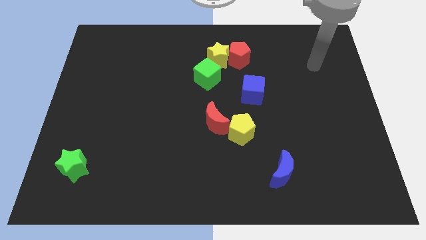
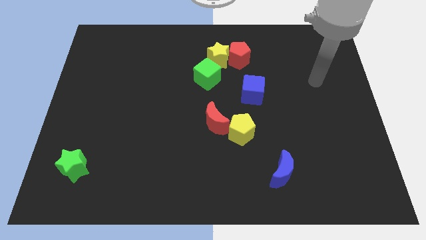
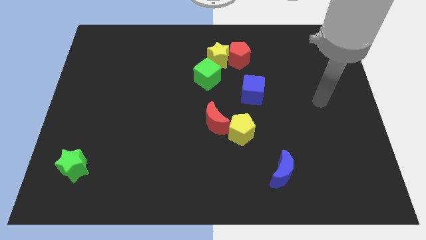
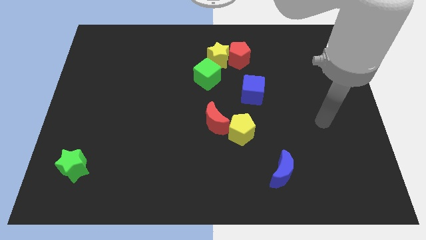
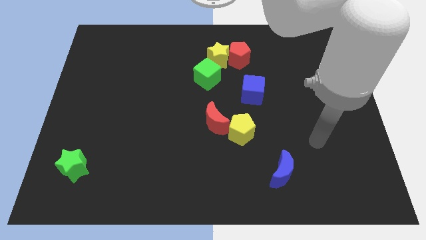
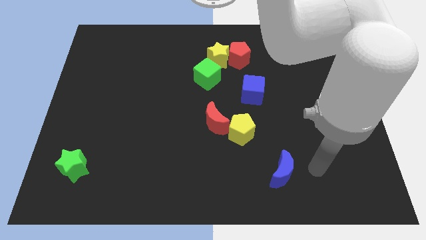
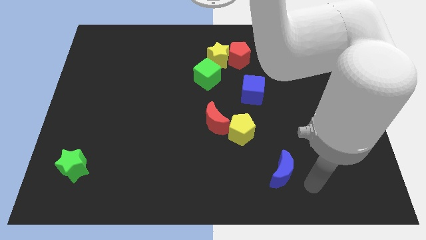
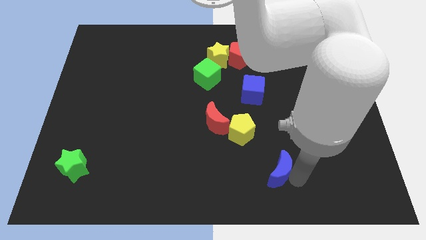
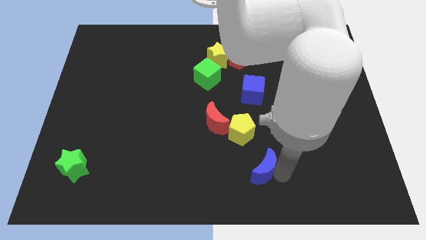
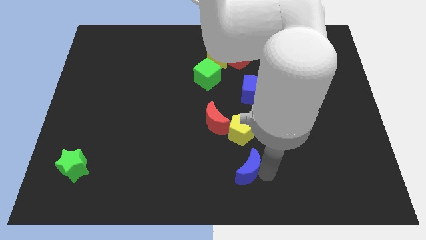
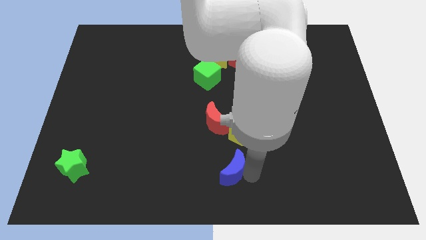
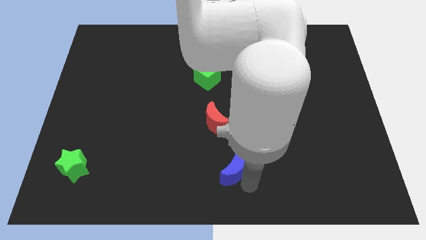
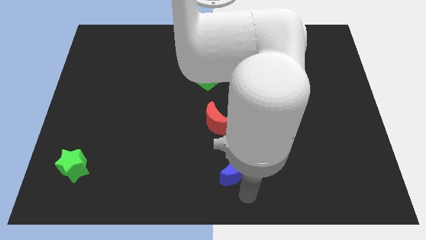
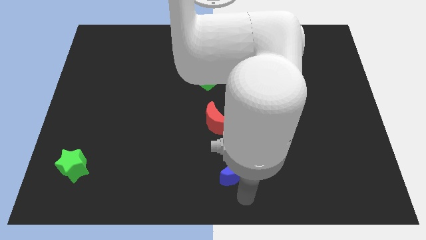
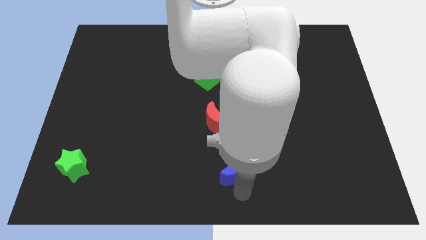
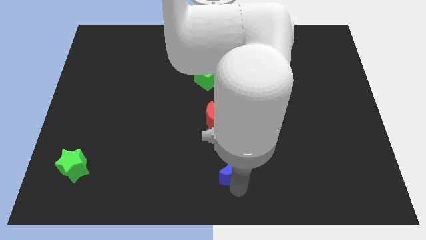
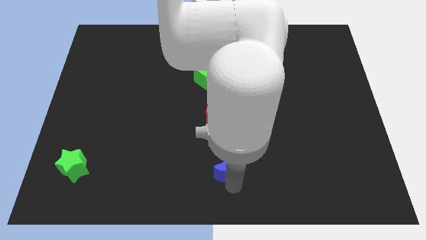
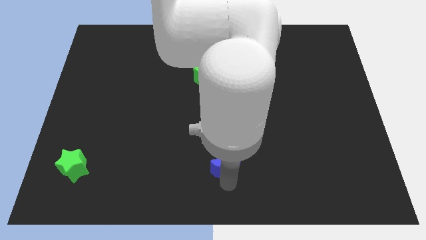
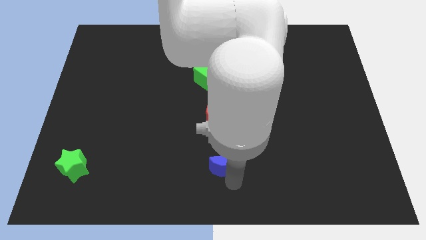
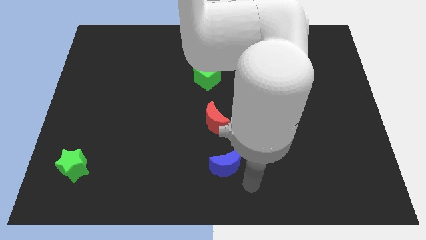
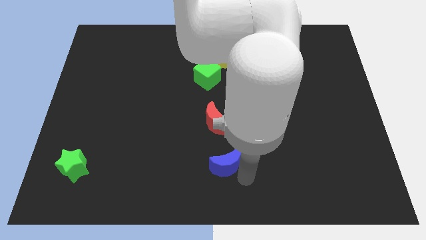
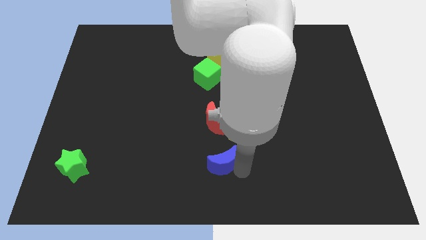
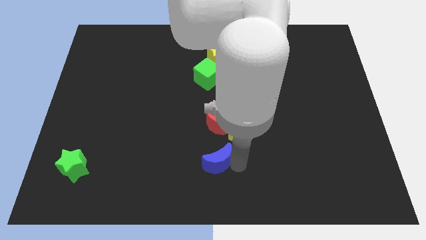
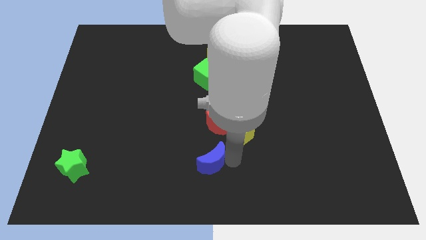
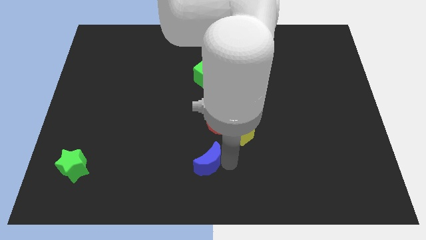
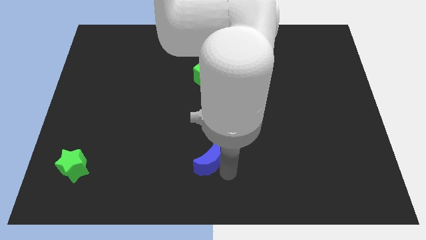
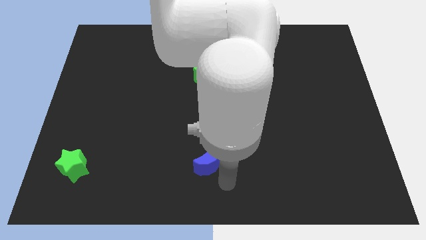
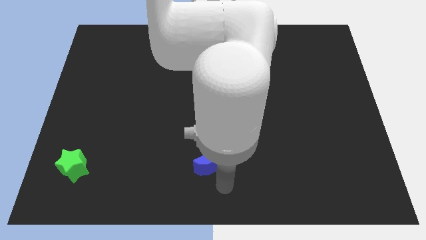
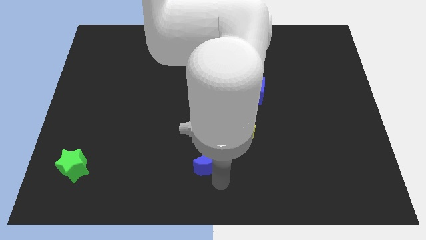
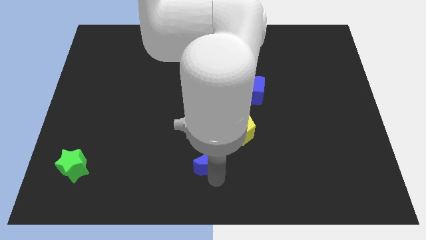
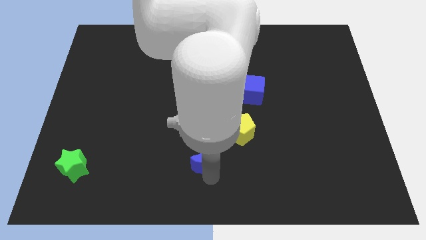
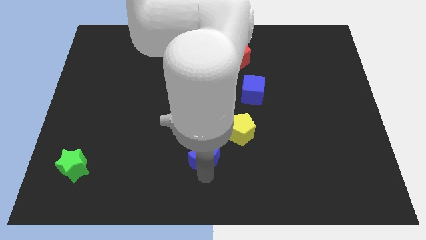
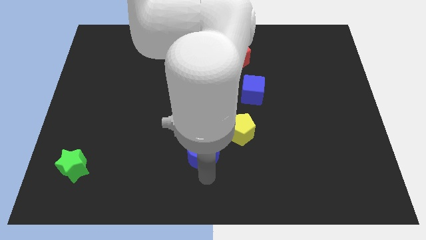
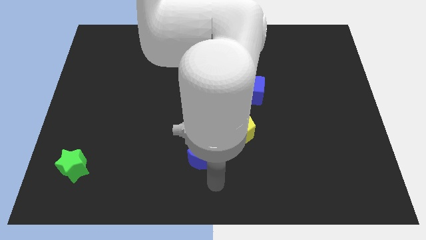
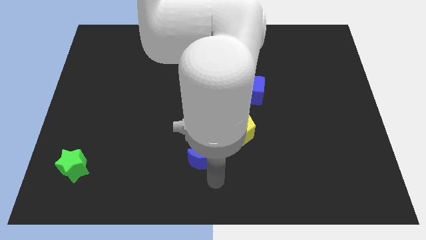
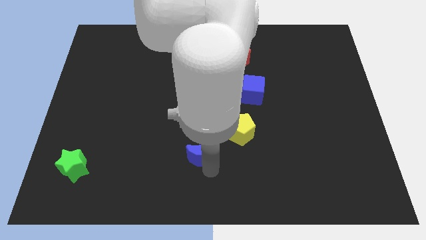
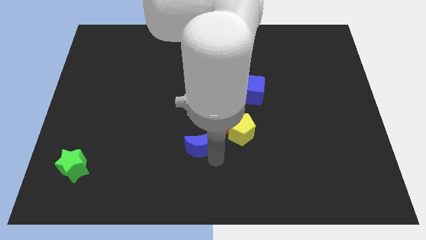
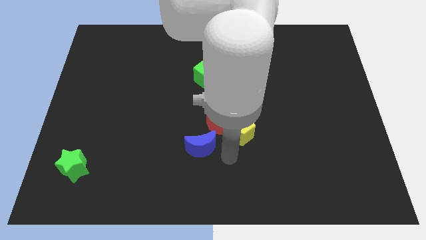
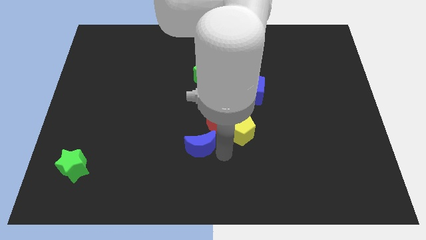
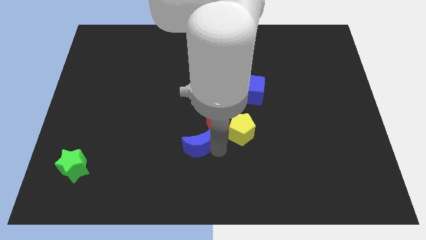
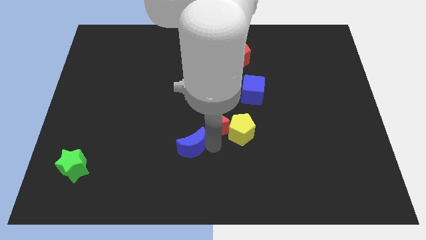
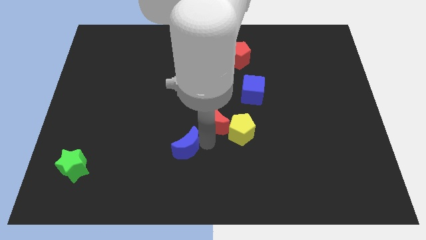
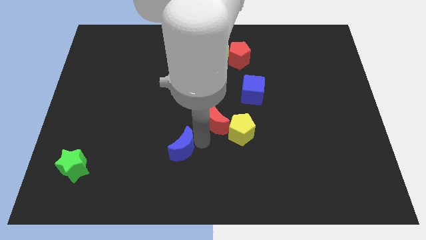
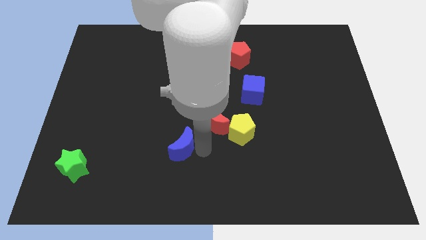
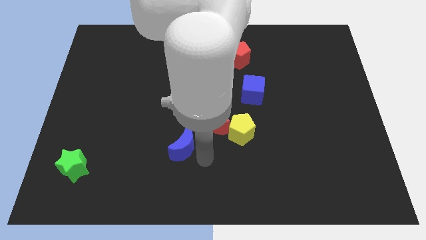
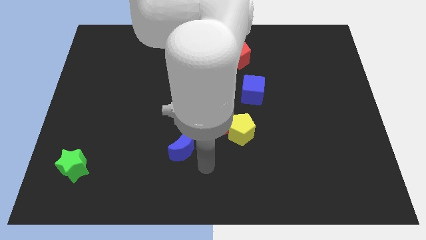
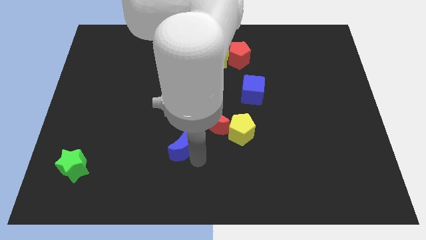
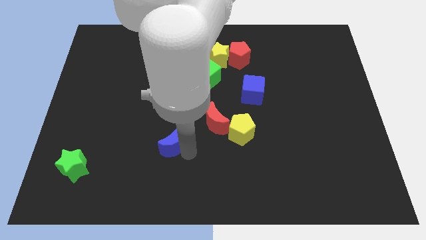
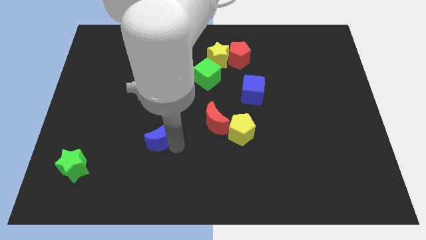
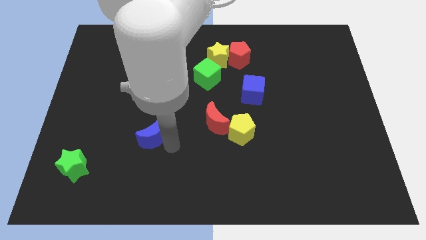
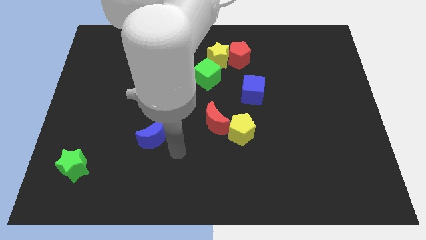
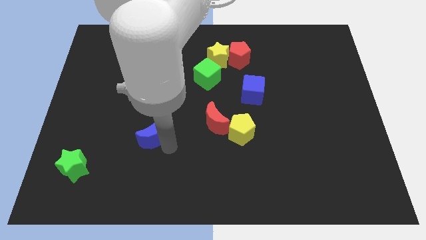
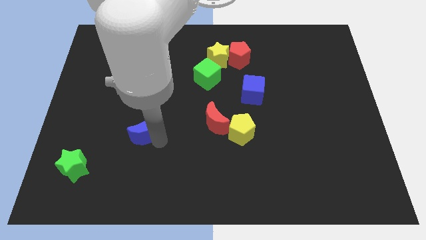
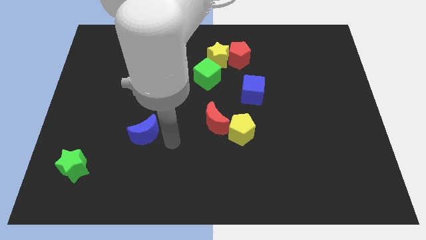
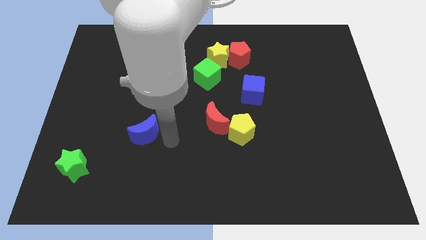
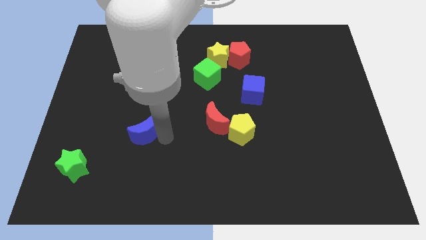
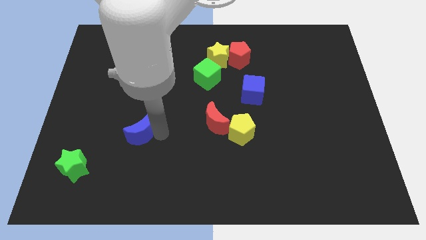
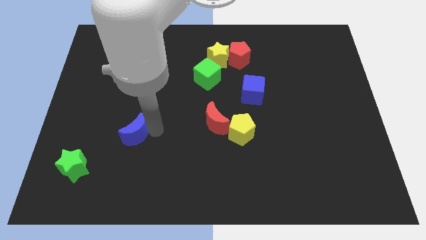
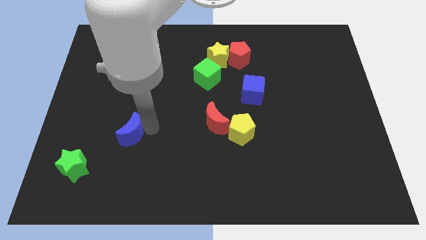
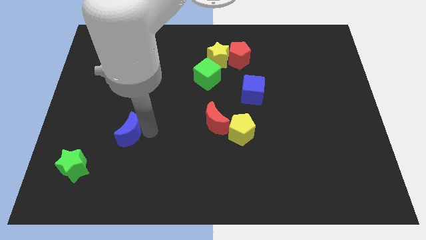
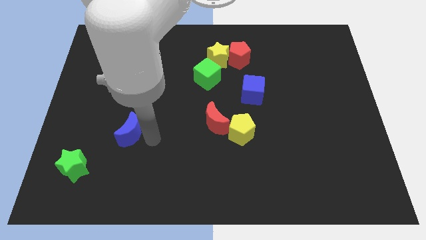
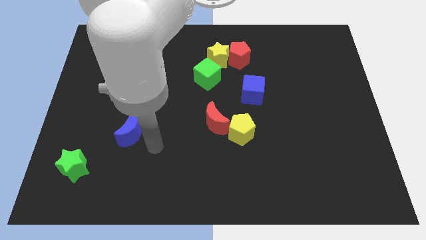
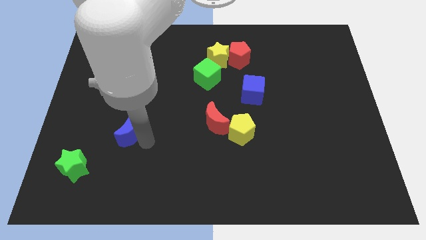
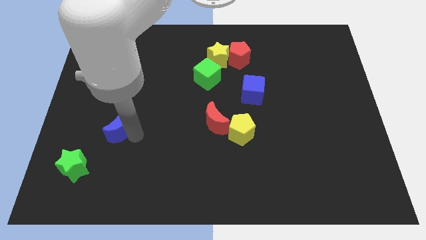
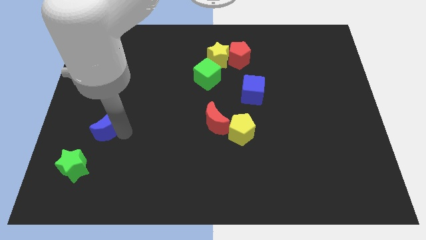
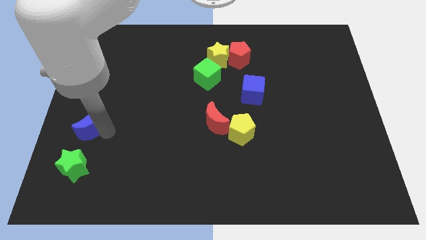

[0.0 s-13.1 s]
move the blue moon to the center left

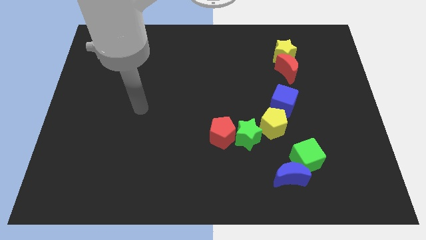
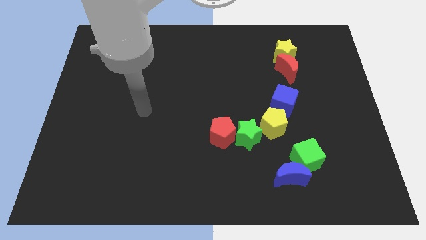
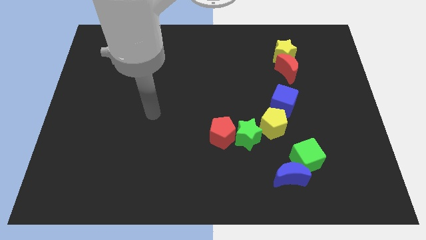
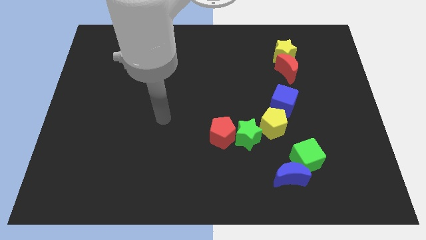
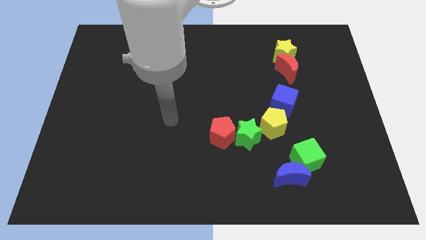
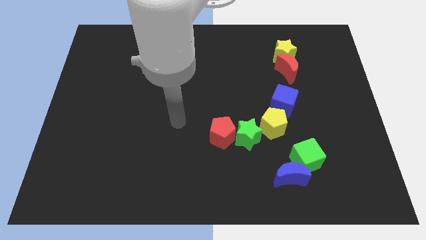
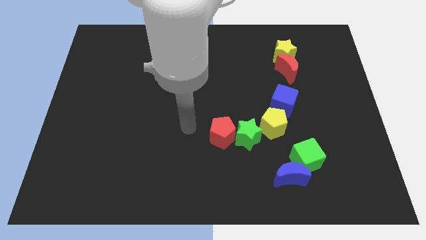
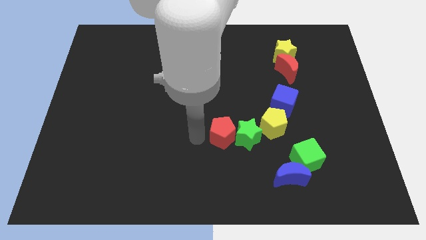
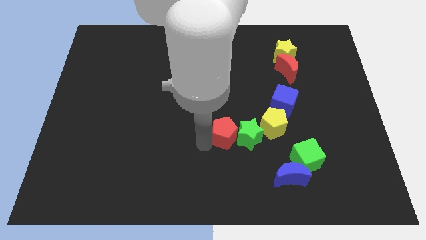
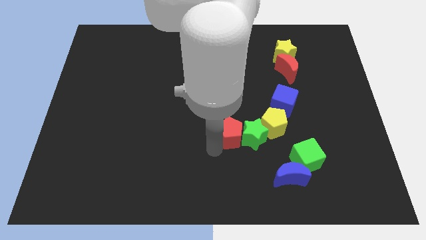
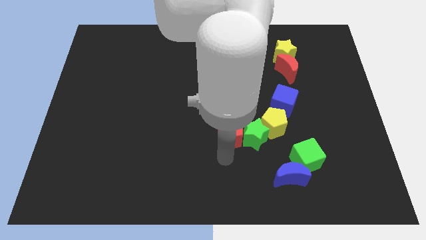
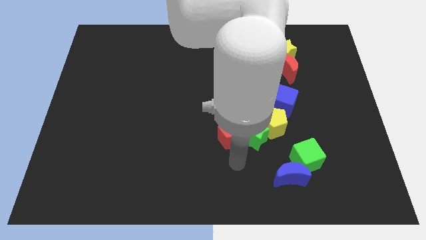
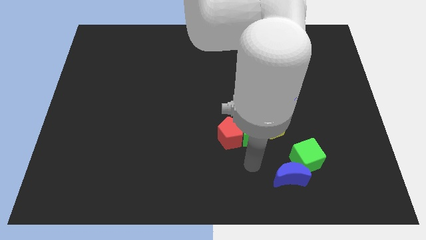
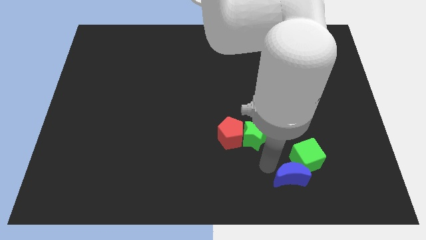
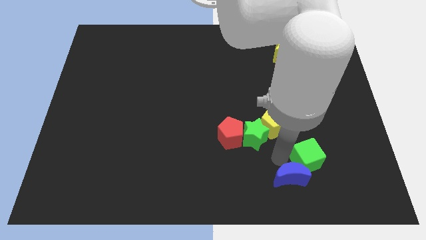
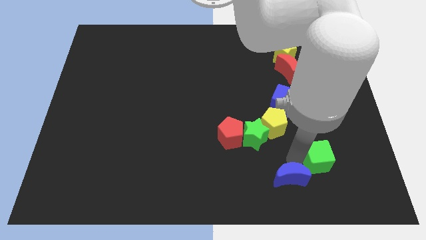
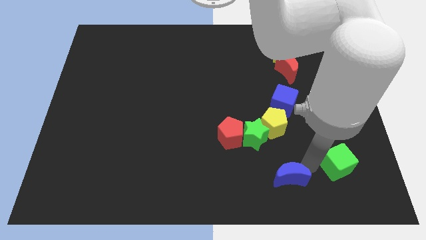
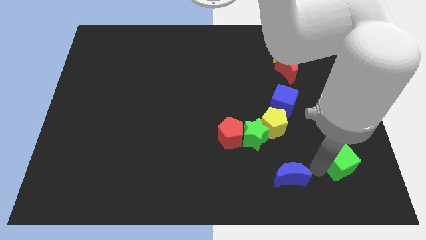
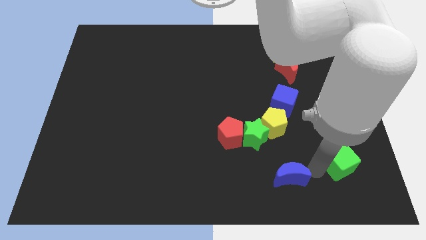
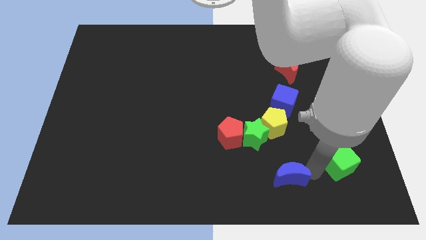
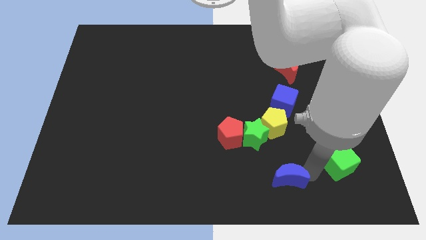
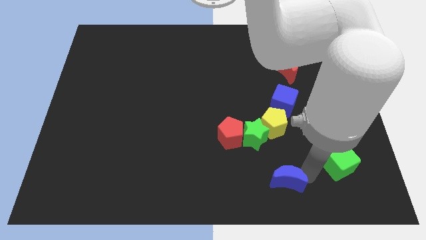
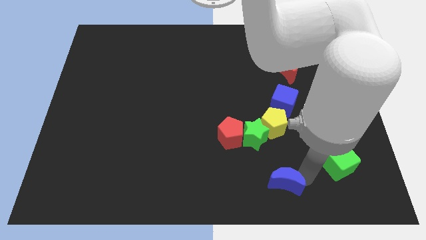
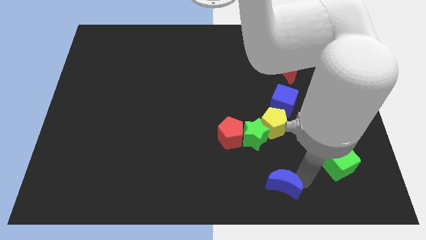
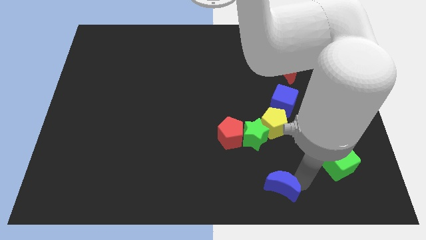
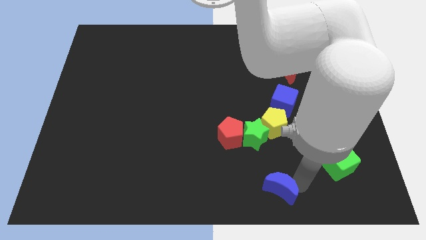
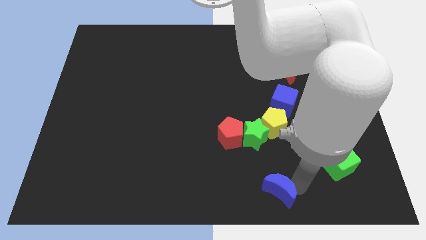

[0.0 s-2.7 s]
put the blue moon to the bottom side
